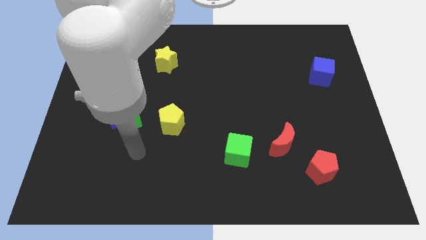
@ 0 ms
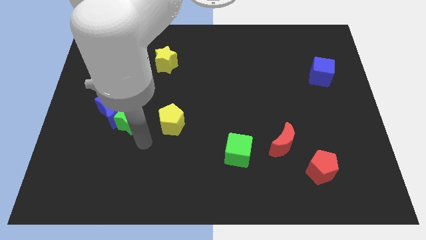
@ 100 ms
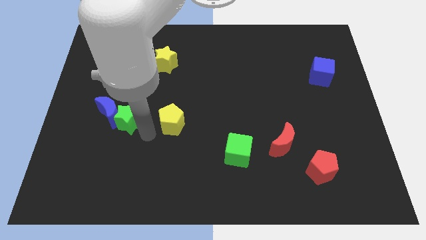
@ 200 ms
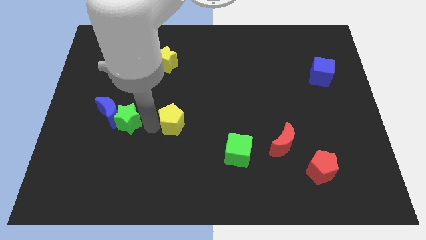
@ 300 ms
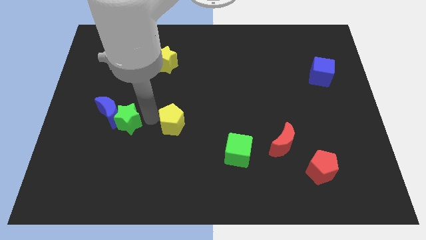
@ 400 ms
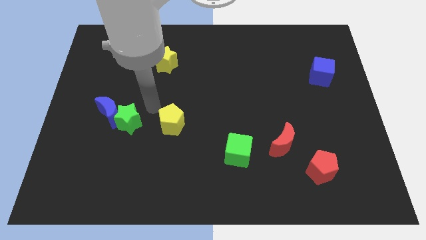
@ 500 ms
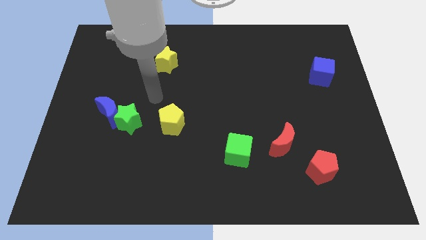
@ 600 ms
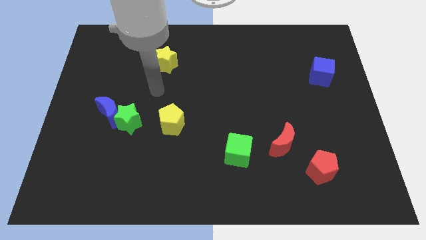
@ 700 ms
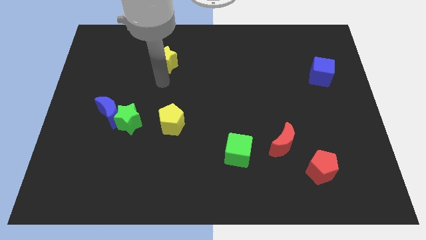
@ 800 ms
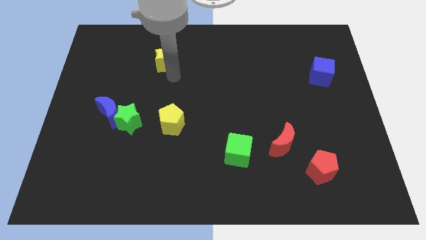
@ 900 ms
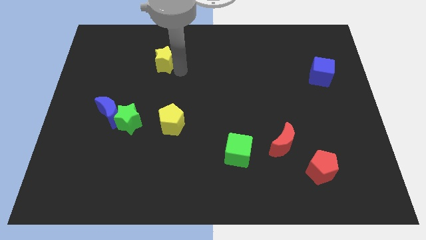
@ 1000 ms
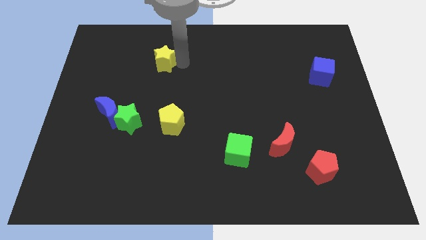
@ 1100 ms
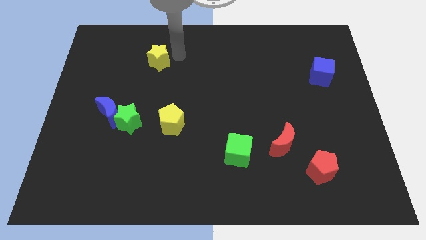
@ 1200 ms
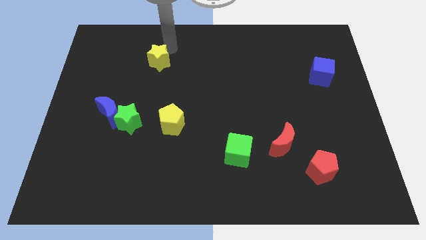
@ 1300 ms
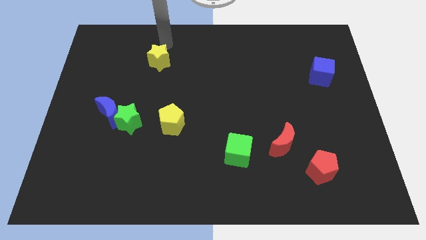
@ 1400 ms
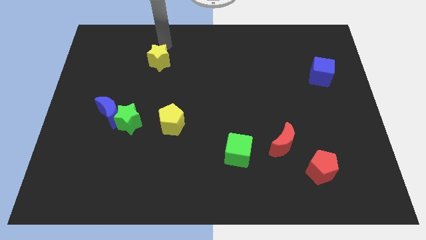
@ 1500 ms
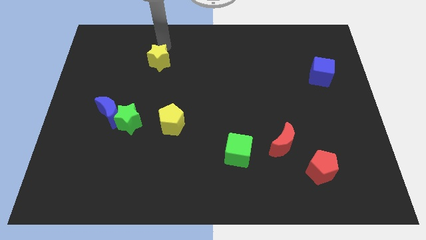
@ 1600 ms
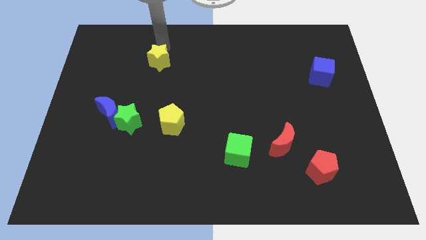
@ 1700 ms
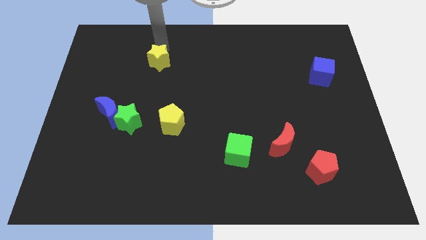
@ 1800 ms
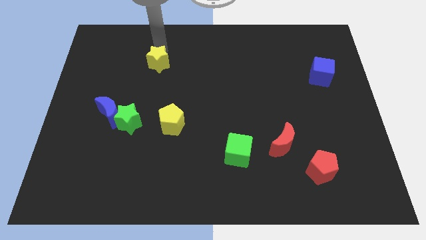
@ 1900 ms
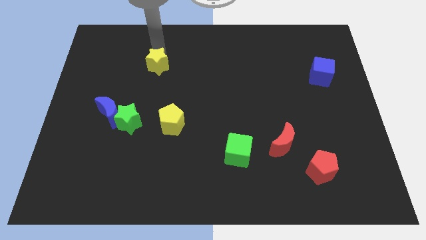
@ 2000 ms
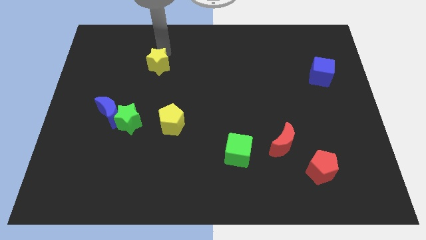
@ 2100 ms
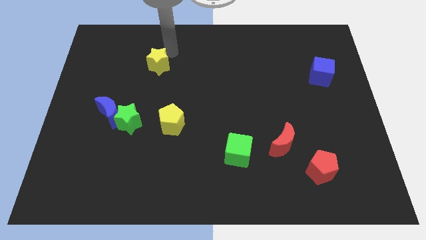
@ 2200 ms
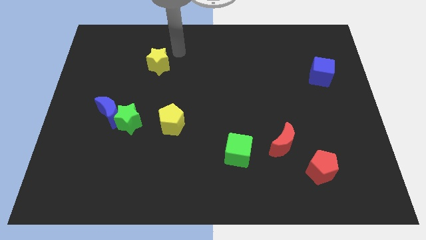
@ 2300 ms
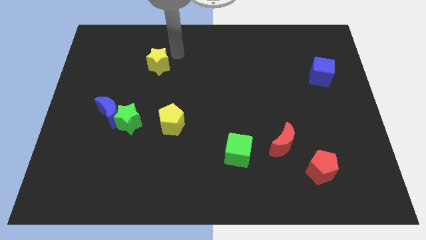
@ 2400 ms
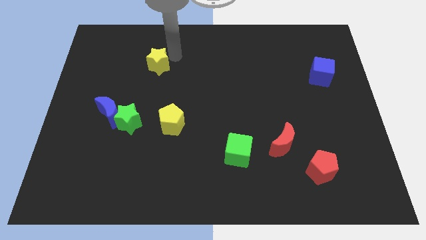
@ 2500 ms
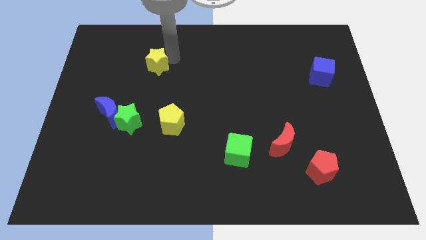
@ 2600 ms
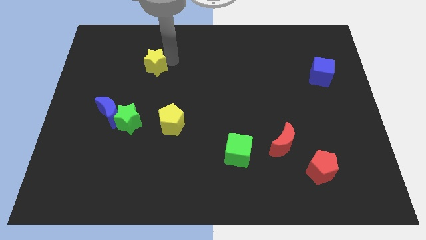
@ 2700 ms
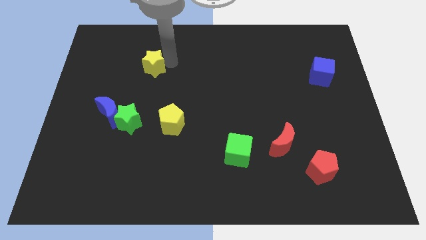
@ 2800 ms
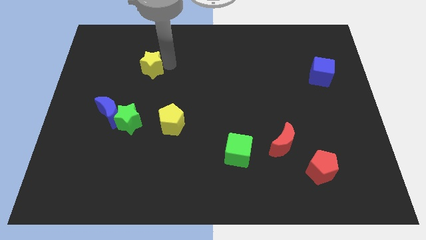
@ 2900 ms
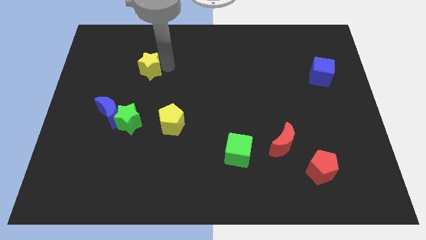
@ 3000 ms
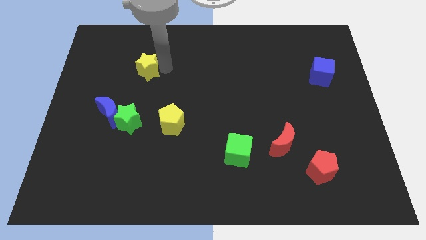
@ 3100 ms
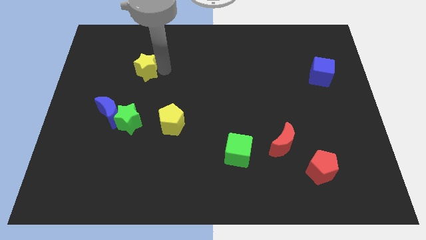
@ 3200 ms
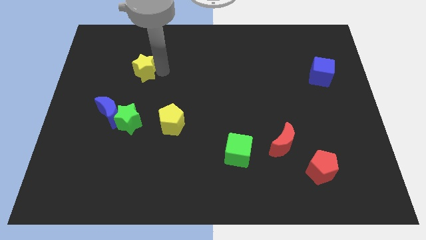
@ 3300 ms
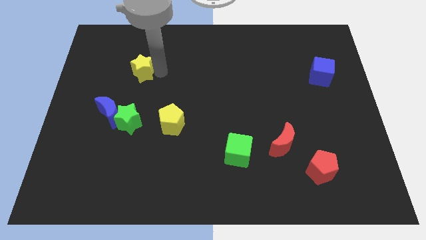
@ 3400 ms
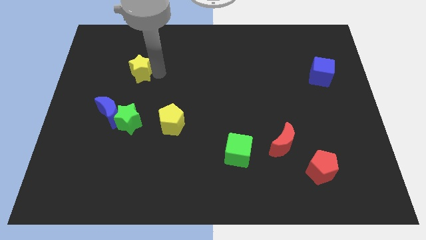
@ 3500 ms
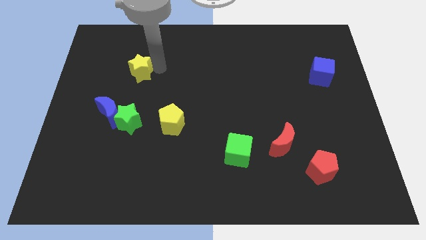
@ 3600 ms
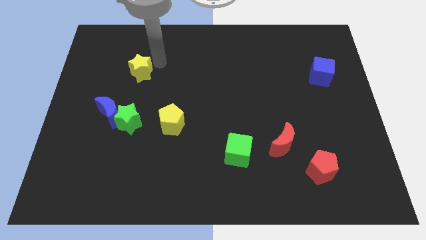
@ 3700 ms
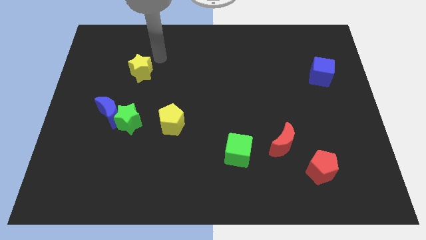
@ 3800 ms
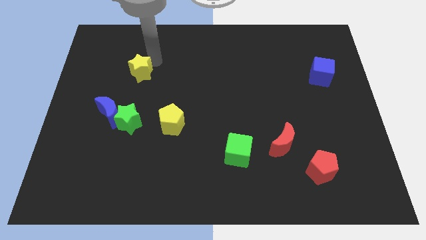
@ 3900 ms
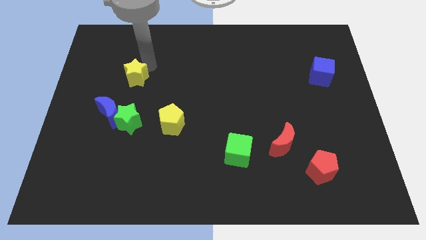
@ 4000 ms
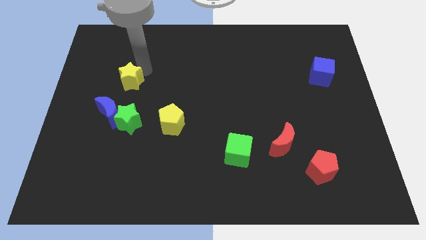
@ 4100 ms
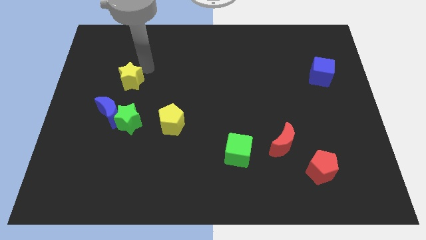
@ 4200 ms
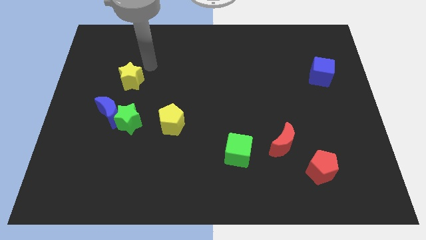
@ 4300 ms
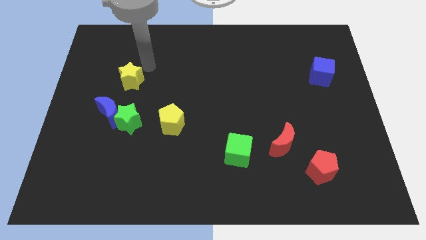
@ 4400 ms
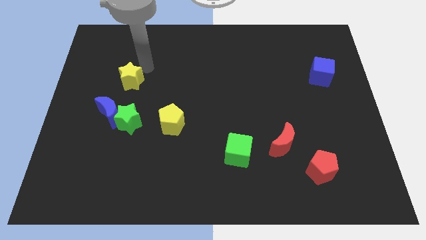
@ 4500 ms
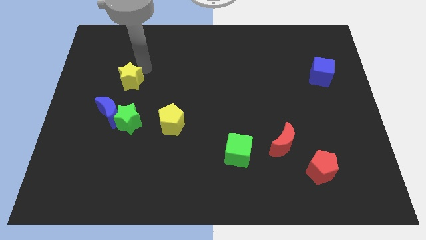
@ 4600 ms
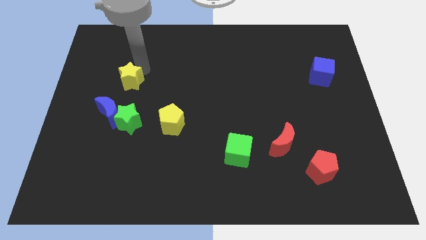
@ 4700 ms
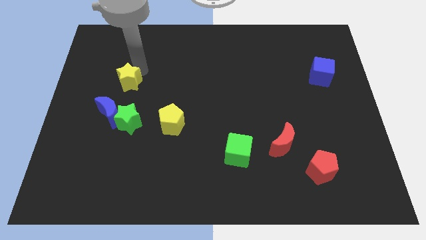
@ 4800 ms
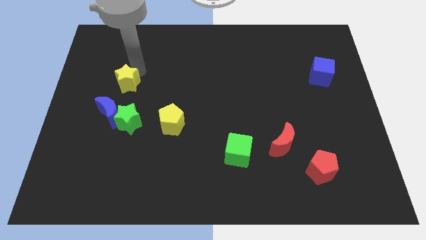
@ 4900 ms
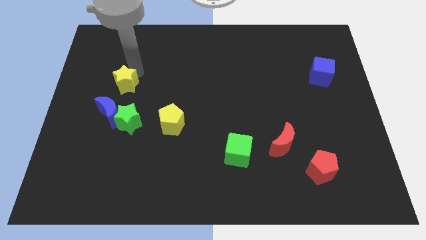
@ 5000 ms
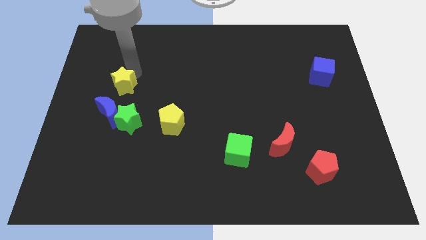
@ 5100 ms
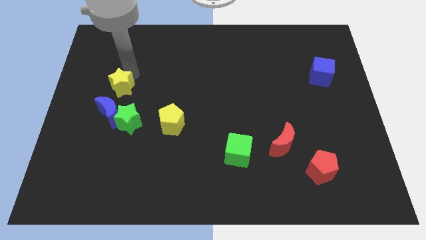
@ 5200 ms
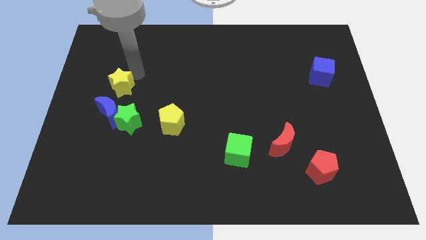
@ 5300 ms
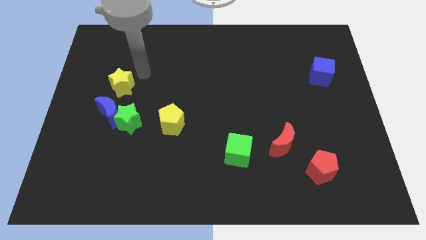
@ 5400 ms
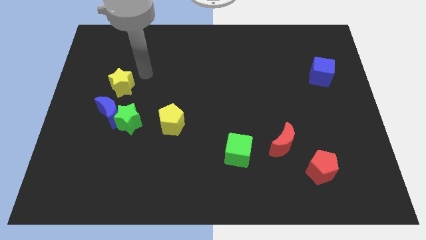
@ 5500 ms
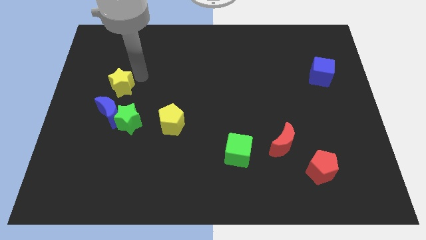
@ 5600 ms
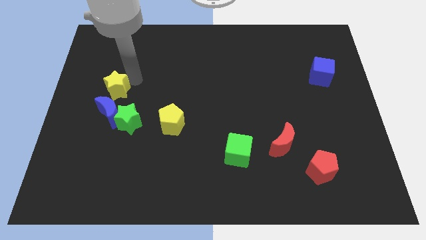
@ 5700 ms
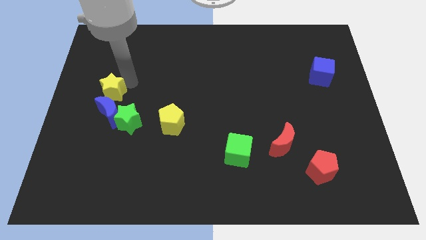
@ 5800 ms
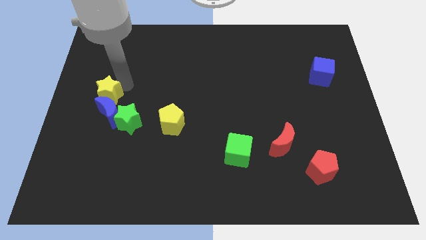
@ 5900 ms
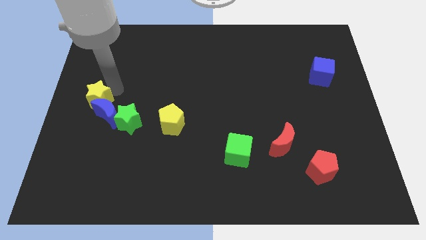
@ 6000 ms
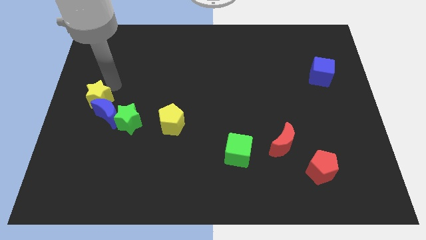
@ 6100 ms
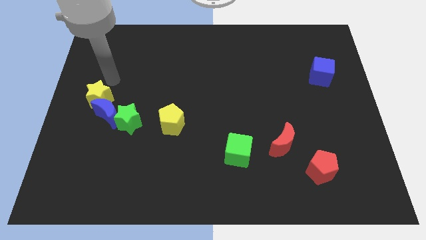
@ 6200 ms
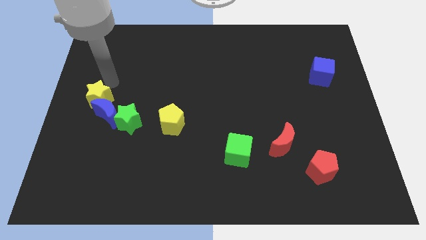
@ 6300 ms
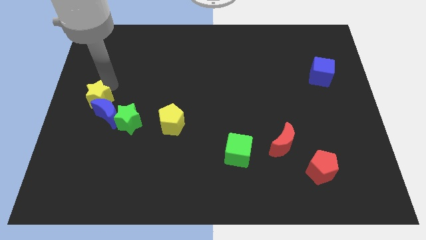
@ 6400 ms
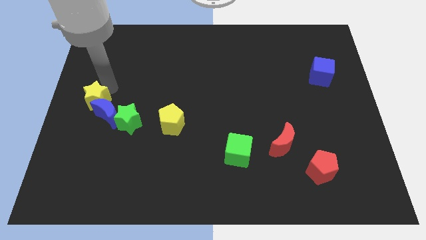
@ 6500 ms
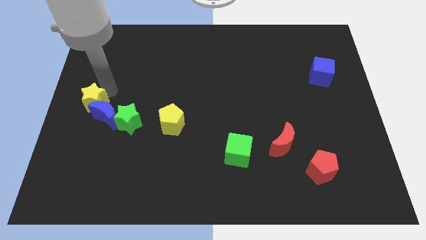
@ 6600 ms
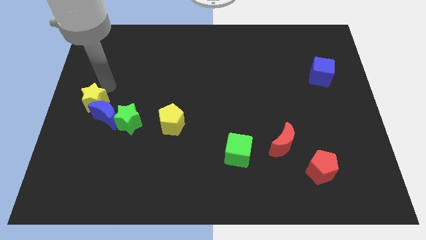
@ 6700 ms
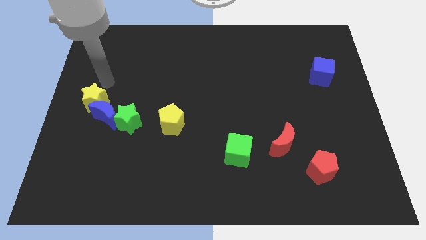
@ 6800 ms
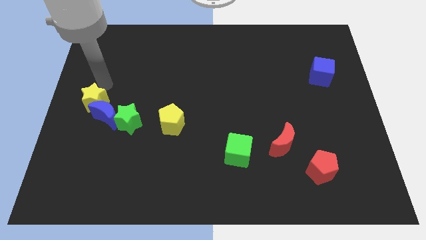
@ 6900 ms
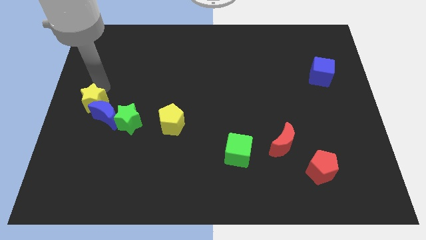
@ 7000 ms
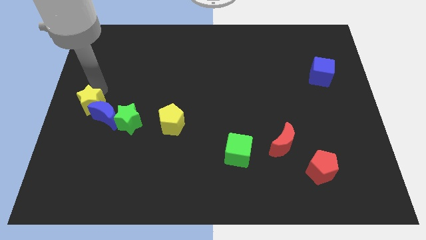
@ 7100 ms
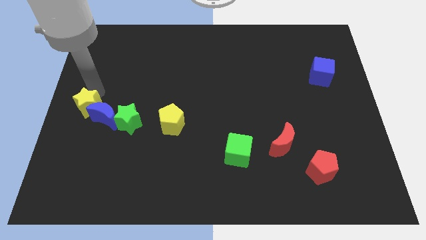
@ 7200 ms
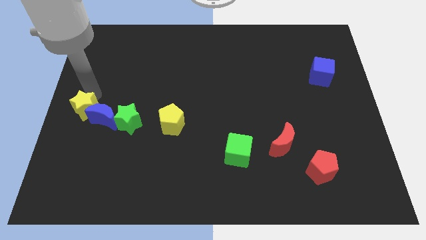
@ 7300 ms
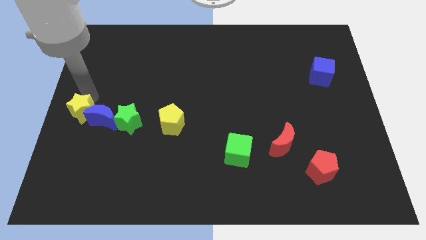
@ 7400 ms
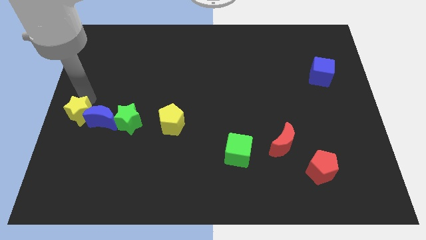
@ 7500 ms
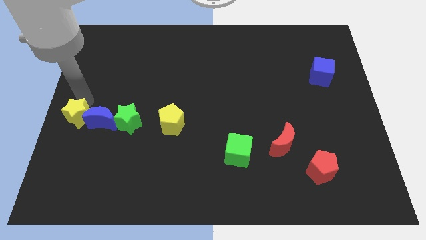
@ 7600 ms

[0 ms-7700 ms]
put the yellow star diagonally down and to the left of the blue moon
